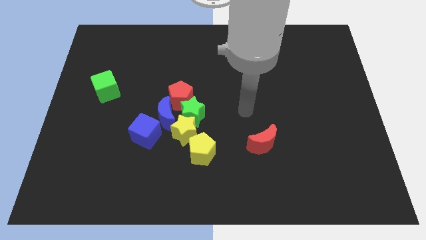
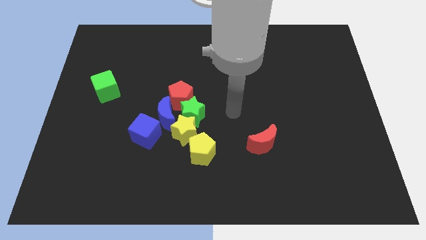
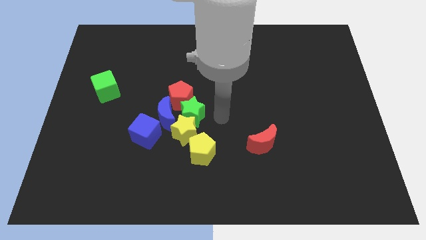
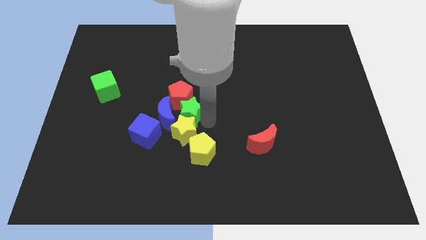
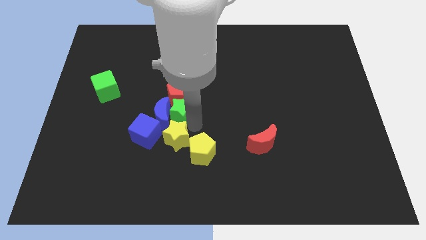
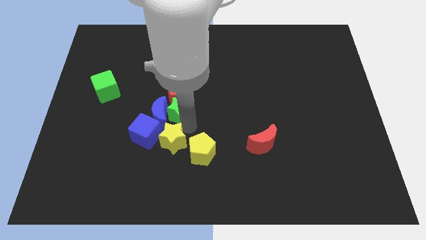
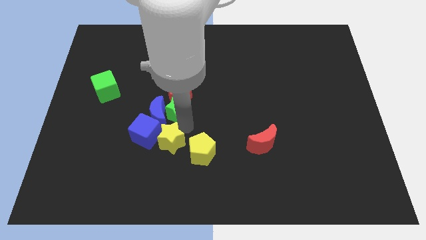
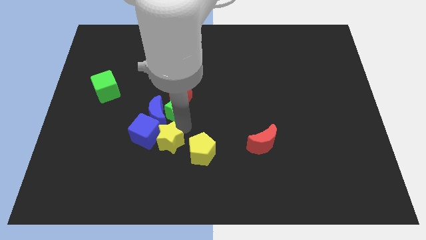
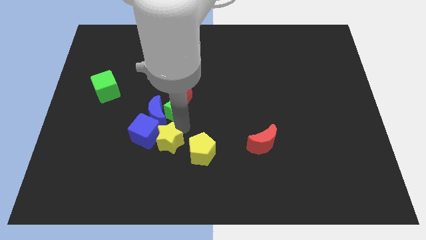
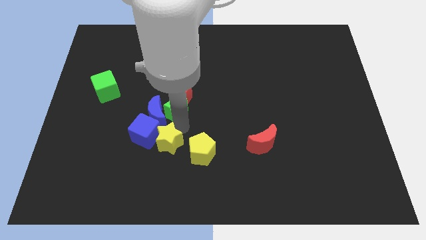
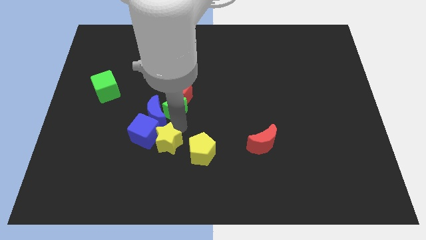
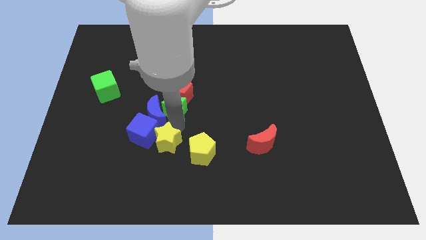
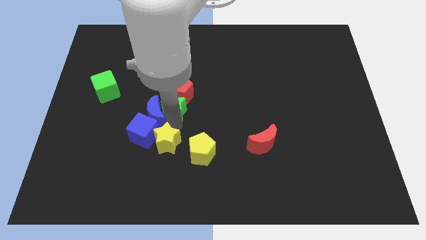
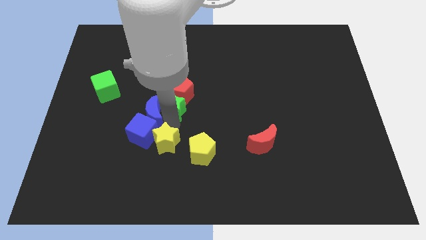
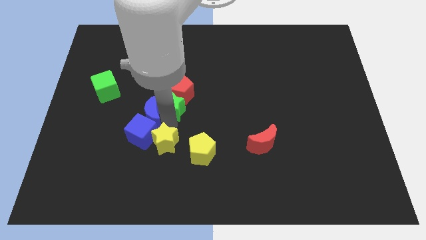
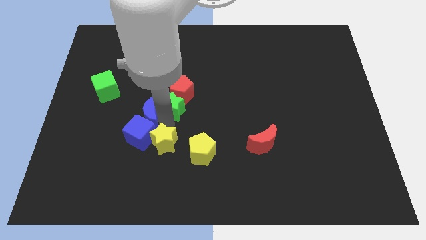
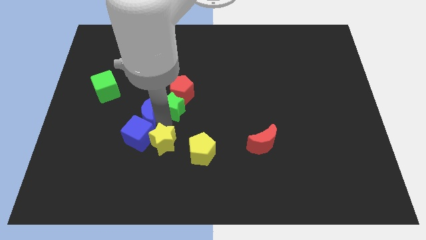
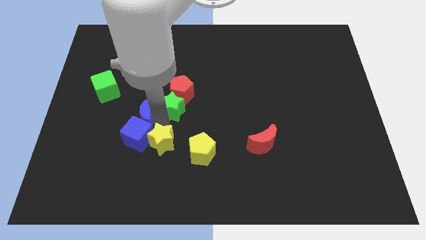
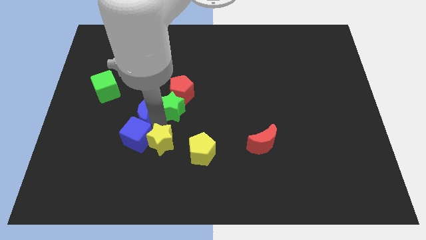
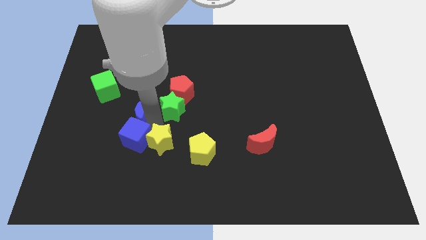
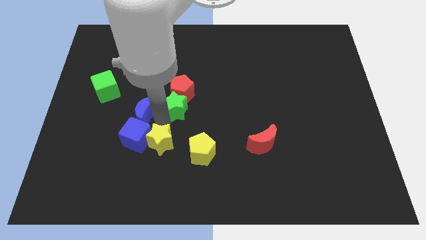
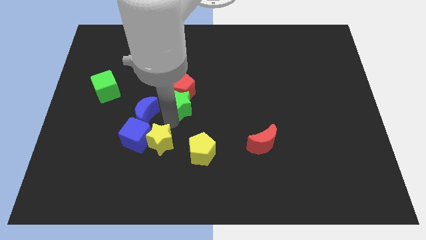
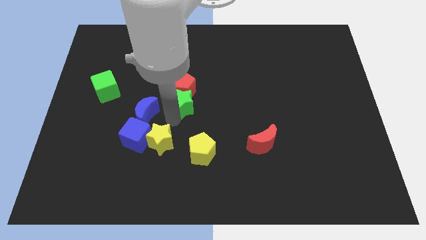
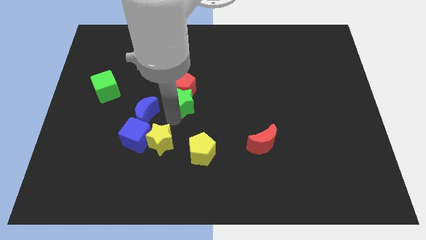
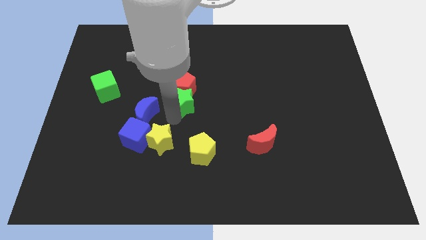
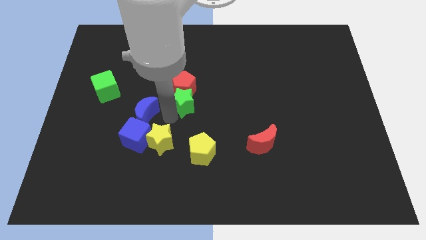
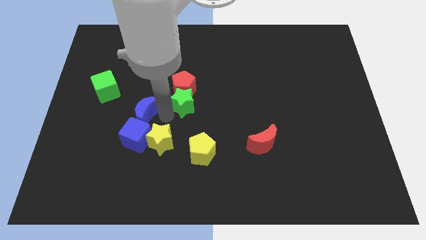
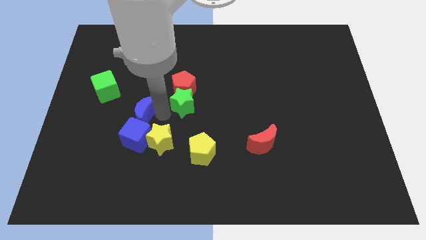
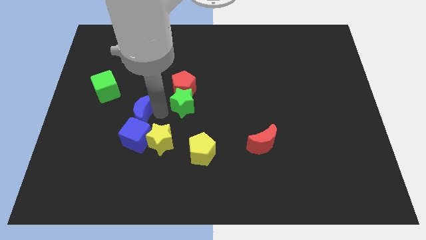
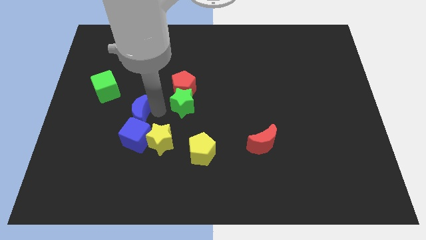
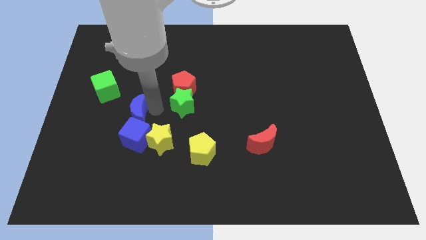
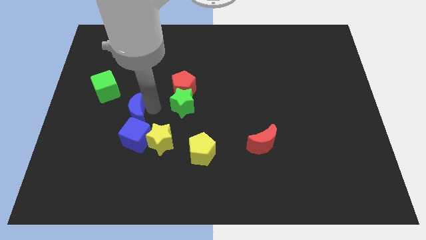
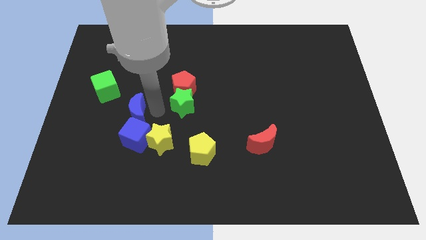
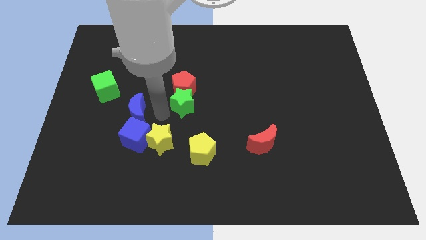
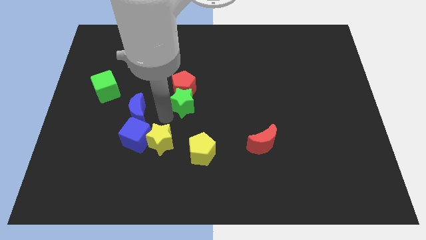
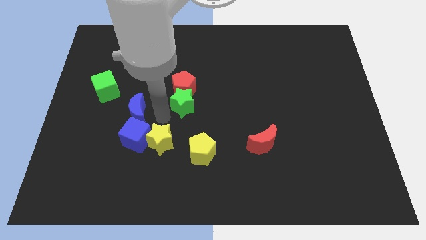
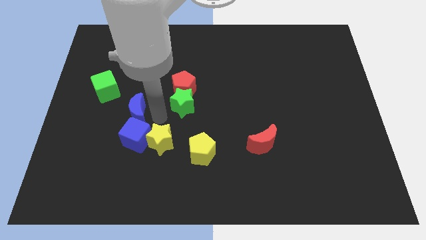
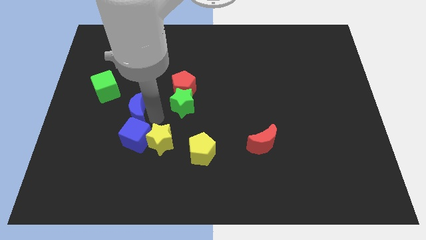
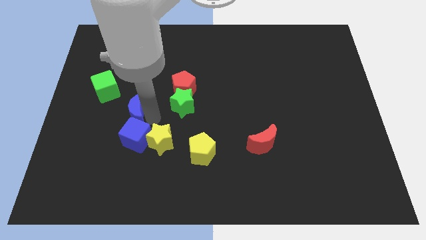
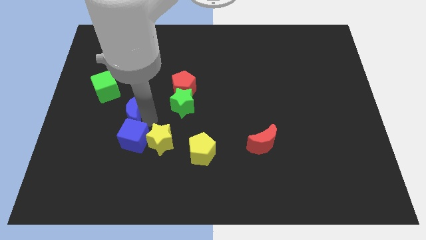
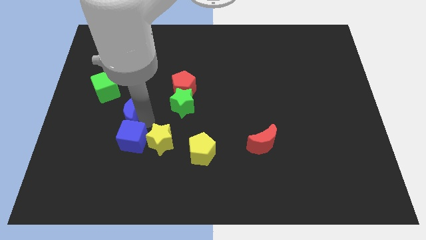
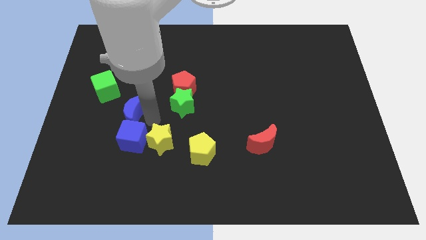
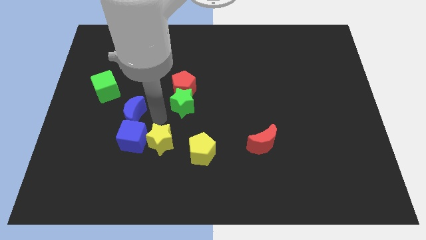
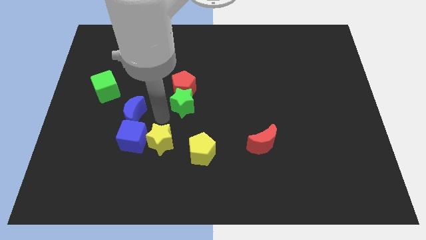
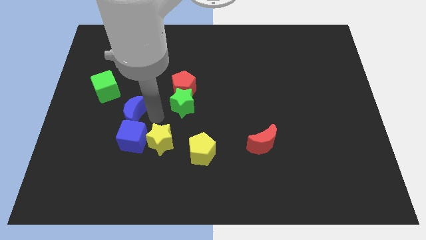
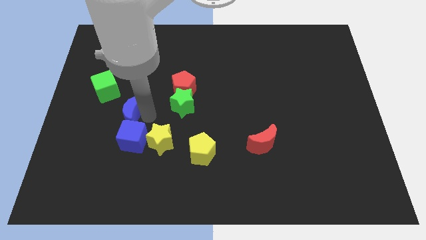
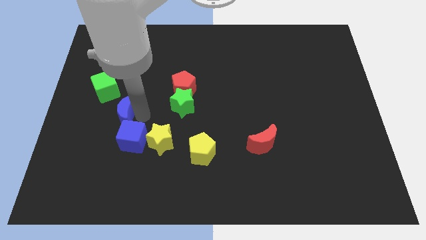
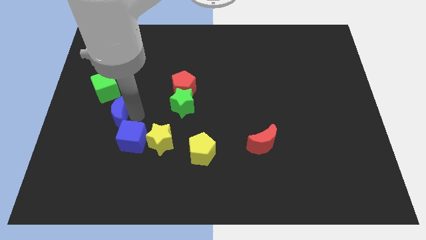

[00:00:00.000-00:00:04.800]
pull the blue moon apart from the clump

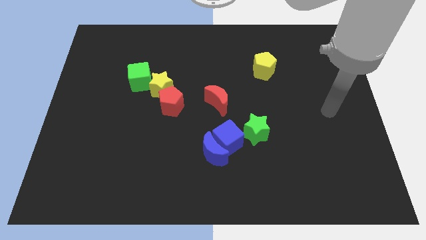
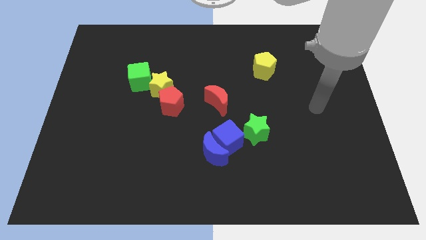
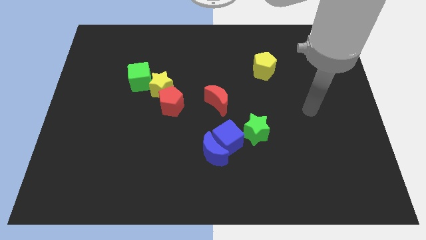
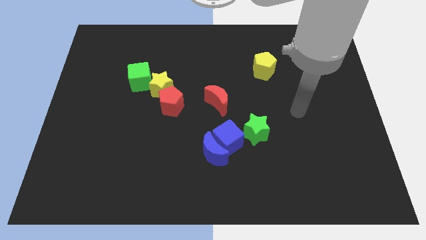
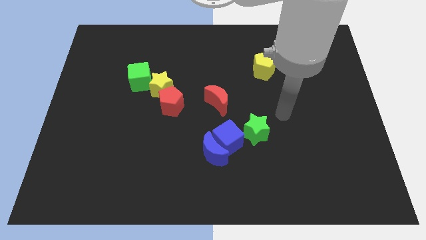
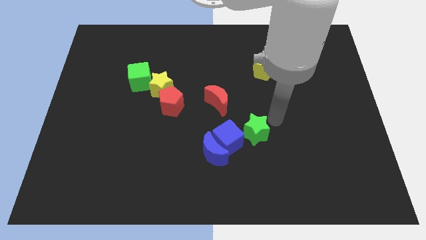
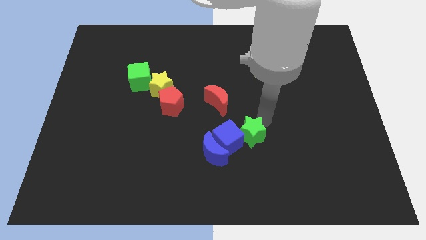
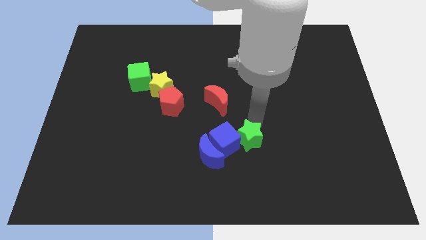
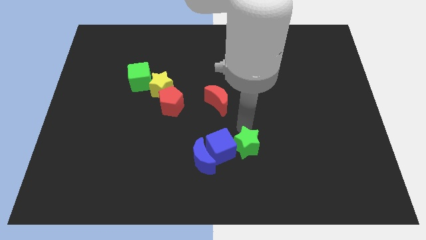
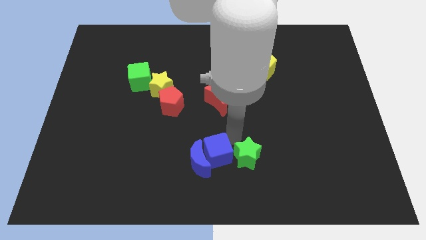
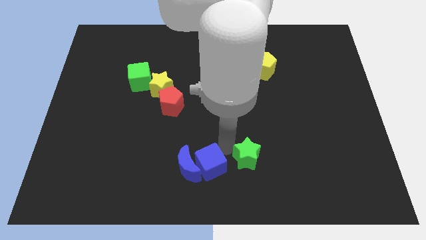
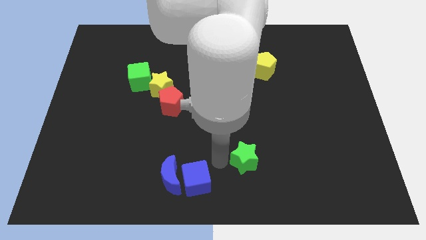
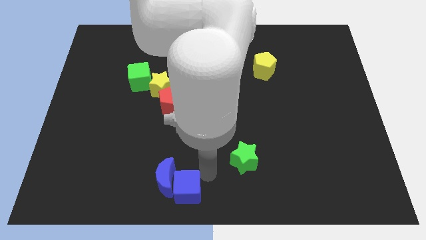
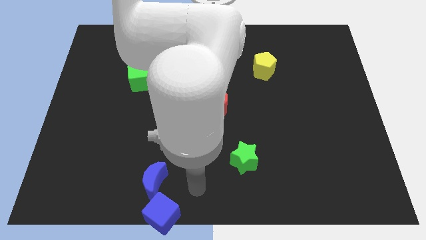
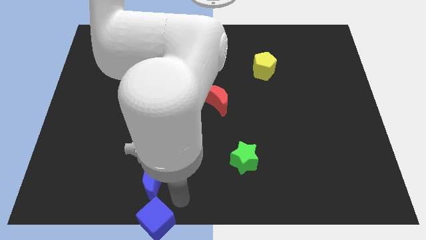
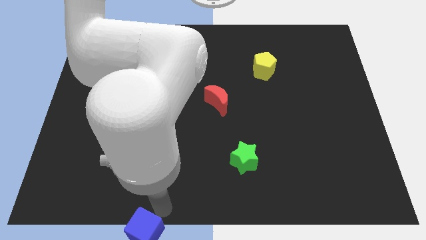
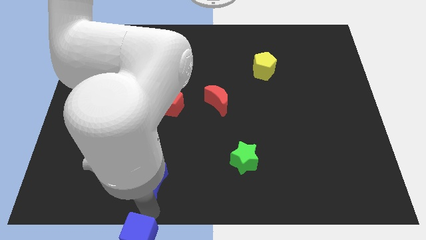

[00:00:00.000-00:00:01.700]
pull the blue moon apart from the blue cube

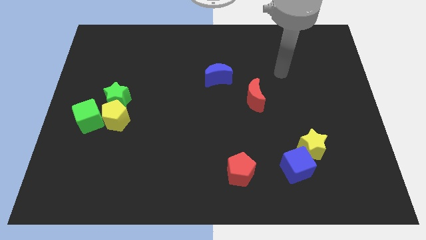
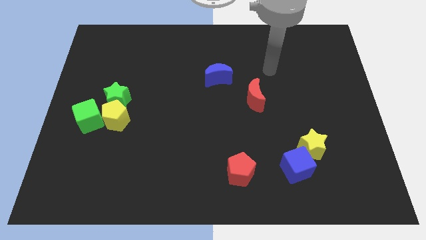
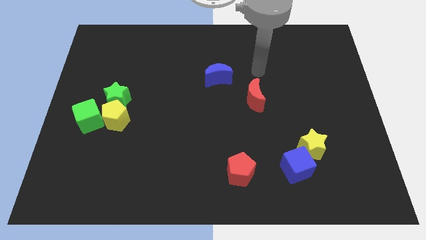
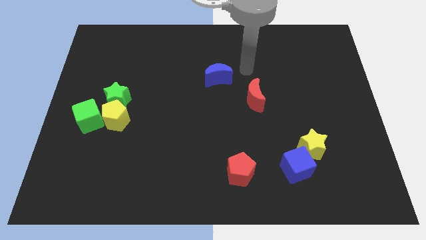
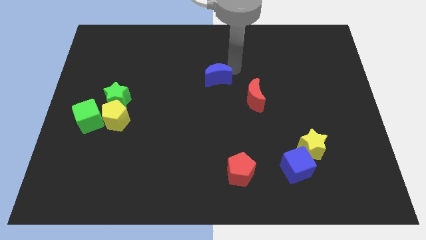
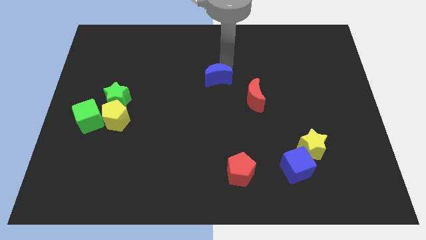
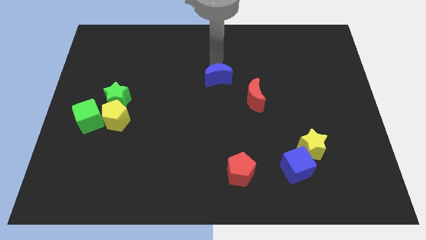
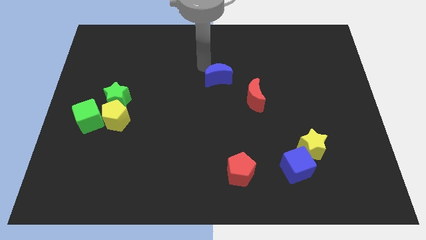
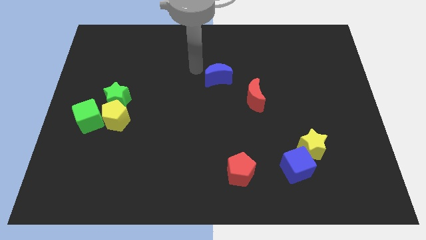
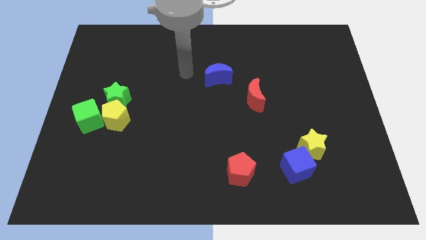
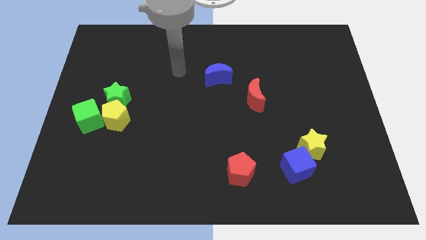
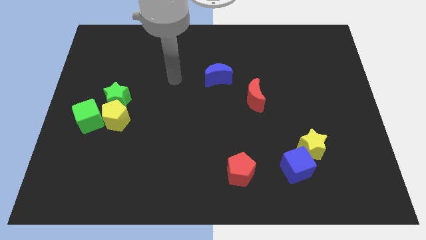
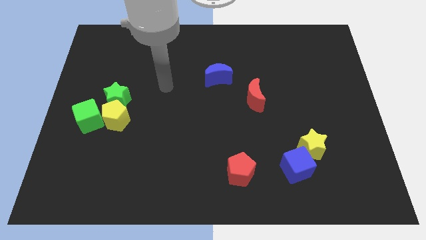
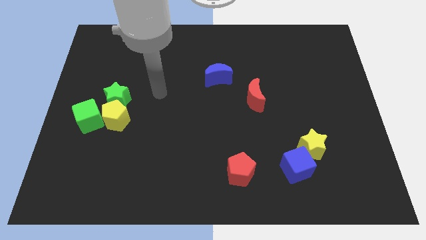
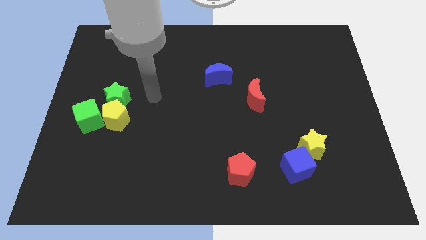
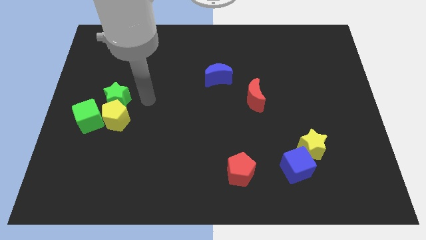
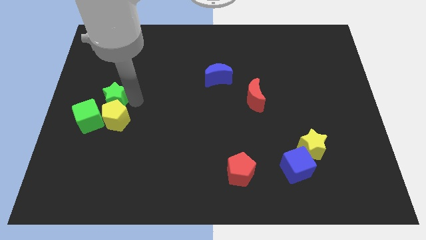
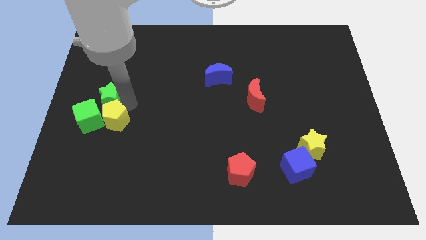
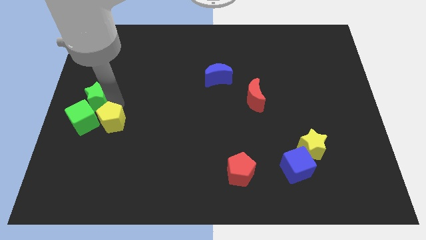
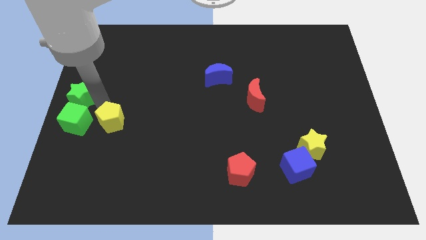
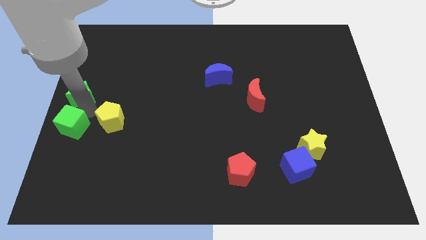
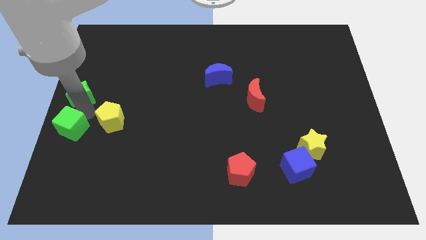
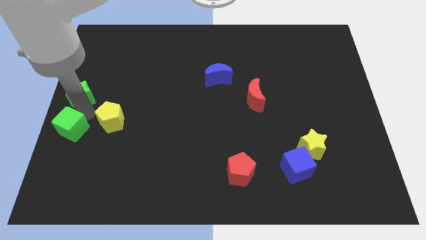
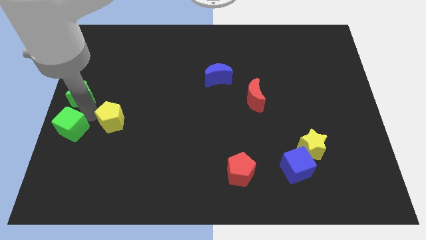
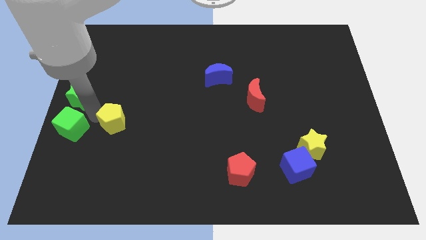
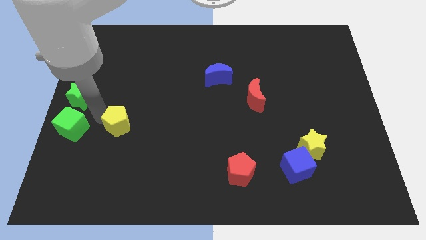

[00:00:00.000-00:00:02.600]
pull the yellow pentagon apart from the green star and green cube

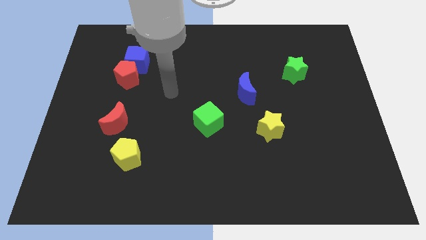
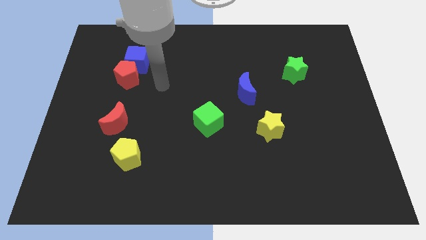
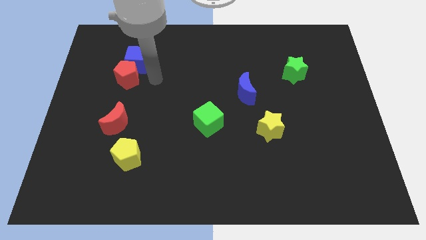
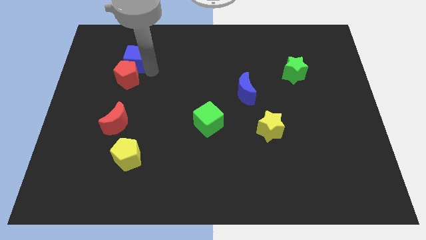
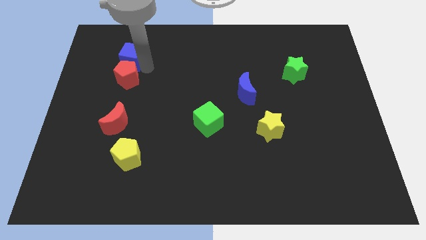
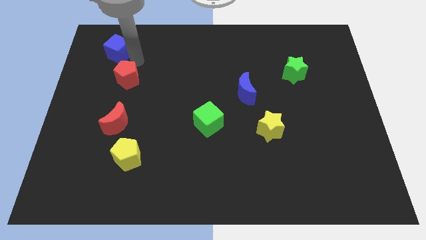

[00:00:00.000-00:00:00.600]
move the red pentagon away from the blue cube
